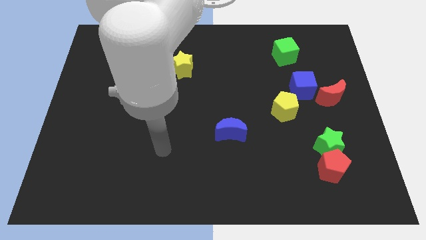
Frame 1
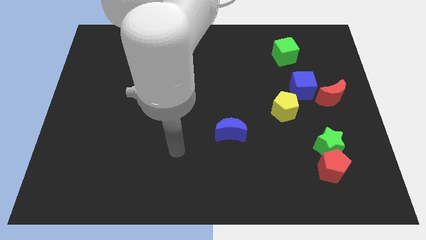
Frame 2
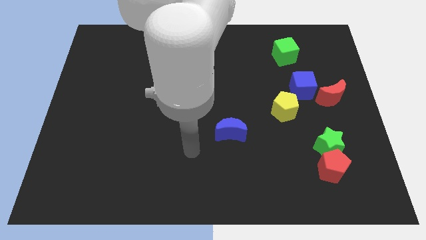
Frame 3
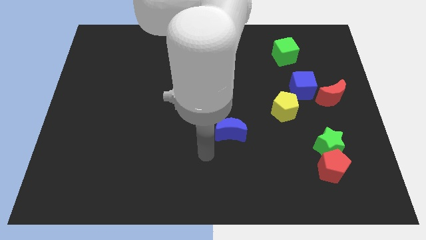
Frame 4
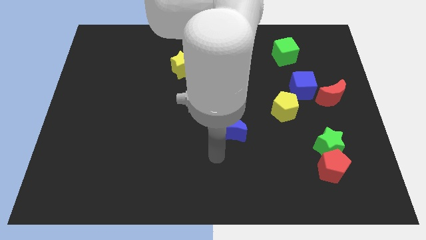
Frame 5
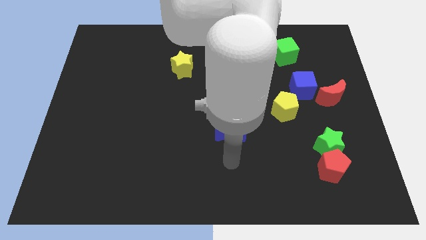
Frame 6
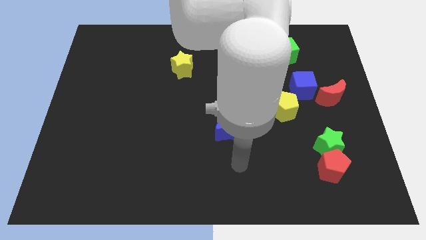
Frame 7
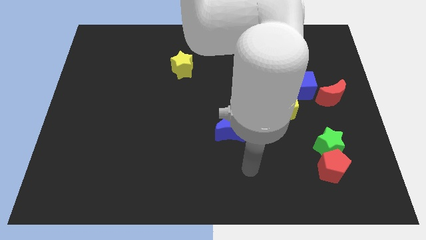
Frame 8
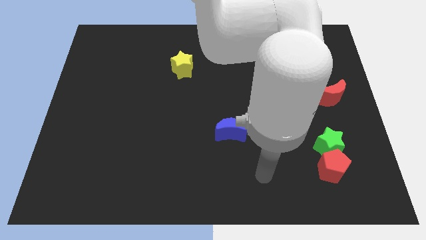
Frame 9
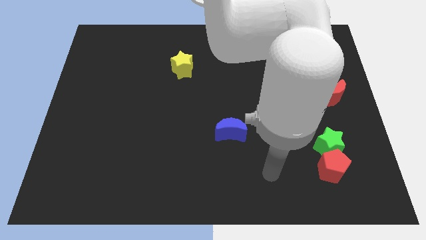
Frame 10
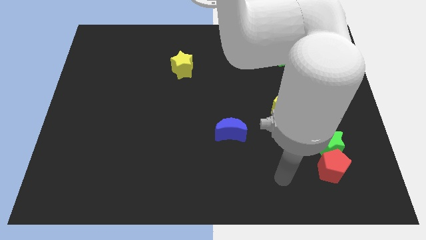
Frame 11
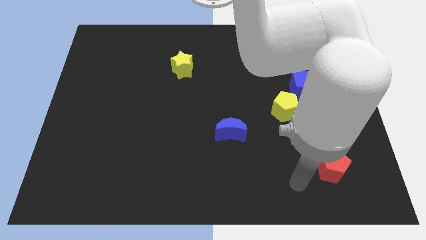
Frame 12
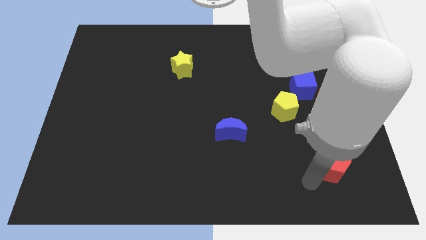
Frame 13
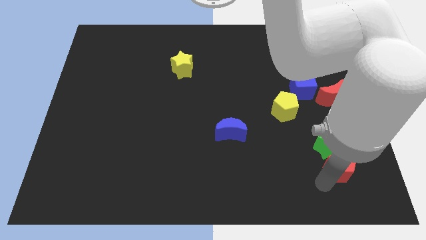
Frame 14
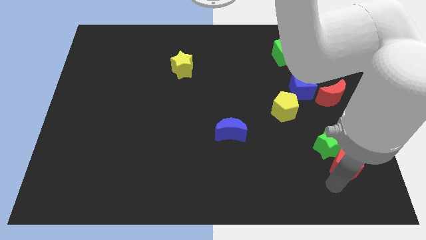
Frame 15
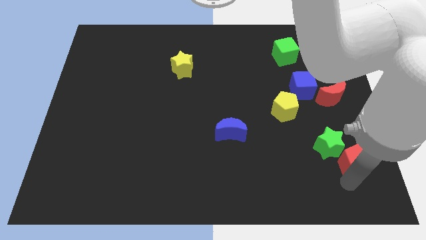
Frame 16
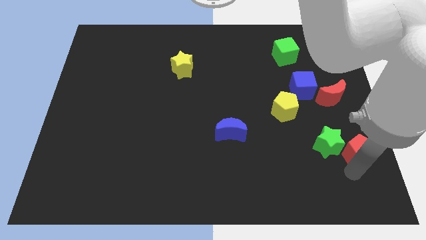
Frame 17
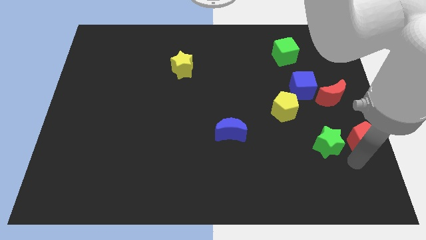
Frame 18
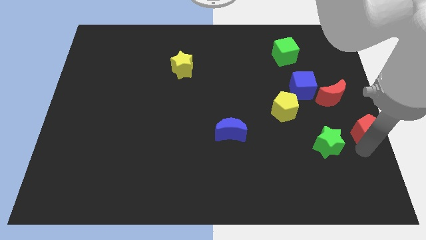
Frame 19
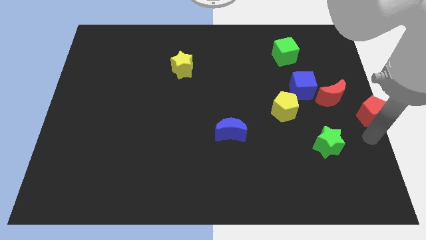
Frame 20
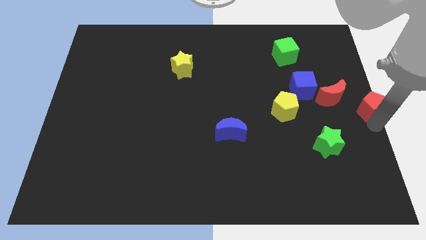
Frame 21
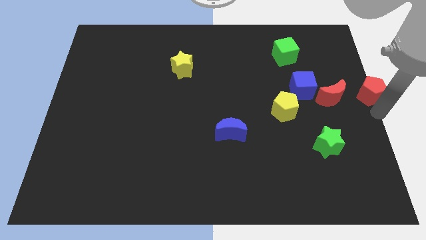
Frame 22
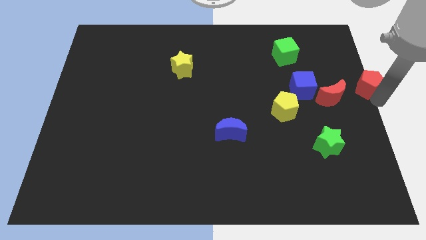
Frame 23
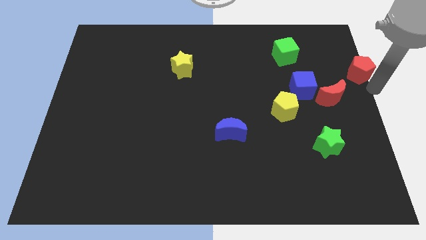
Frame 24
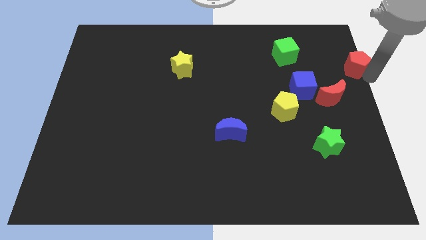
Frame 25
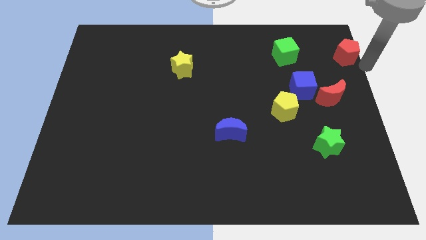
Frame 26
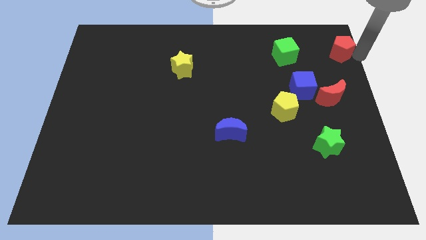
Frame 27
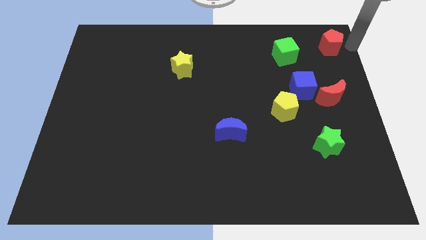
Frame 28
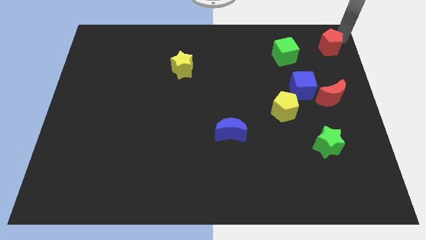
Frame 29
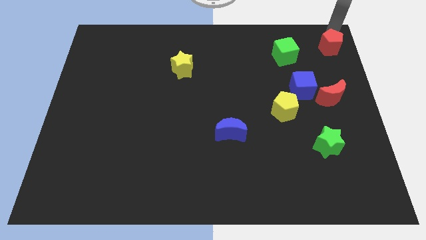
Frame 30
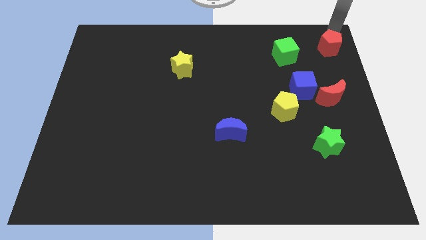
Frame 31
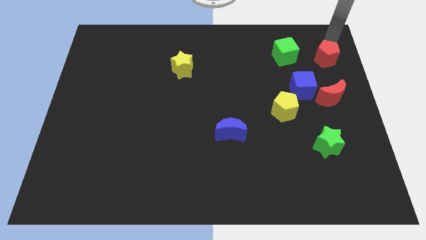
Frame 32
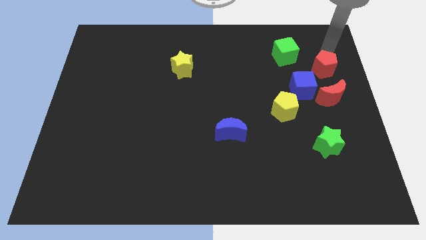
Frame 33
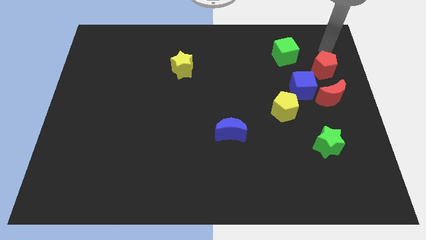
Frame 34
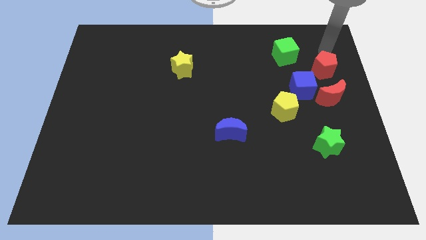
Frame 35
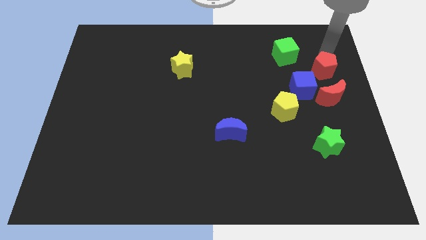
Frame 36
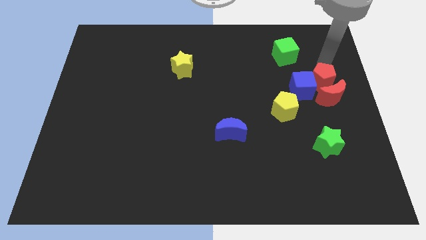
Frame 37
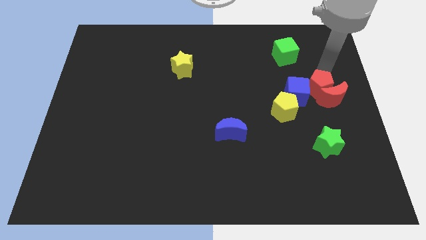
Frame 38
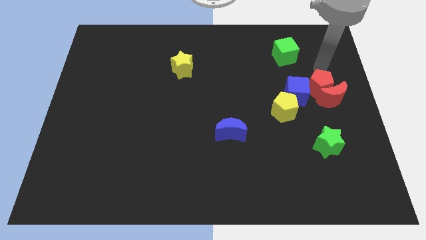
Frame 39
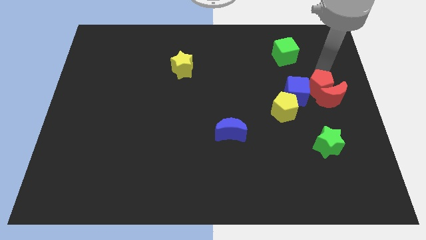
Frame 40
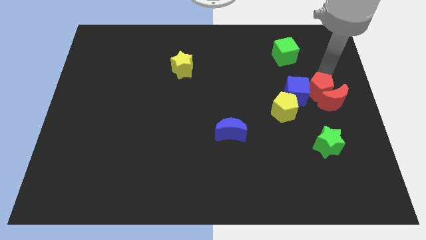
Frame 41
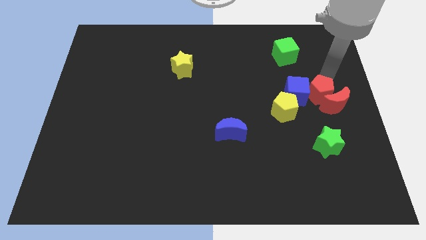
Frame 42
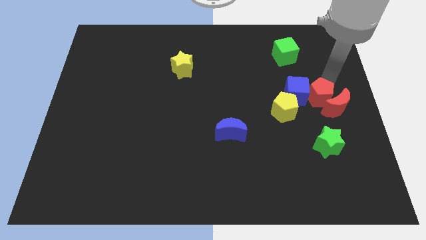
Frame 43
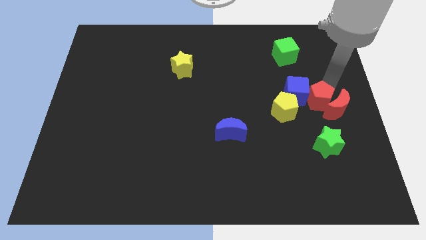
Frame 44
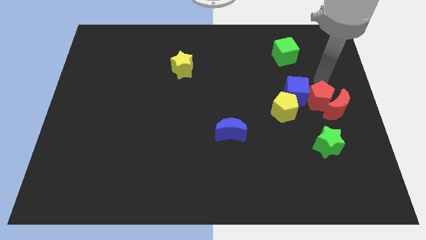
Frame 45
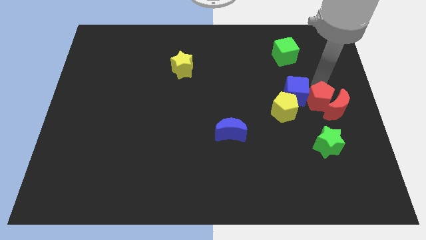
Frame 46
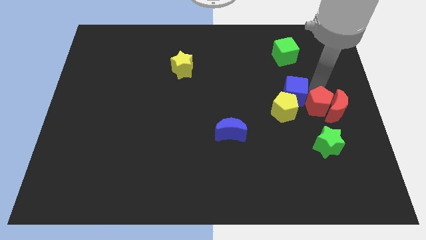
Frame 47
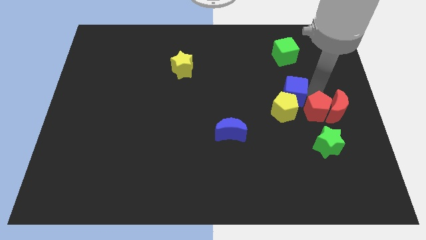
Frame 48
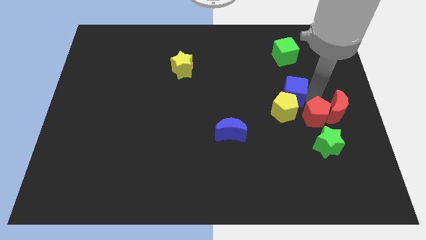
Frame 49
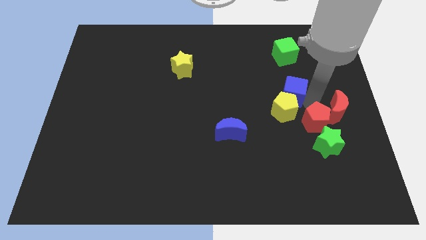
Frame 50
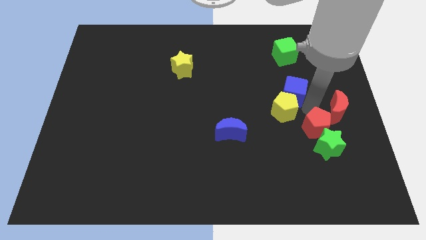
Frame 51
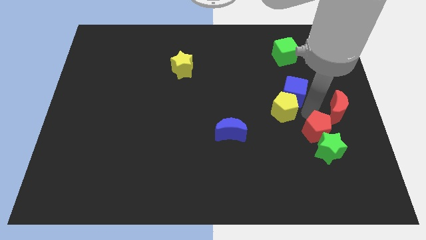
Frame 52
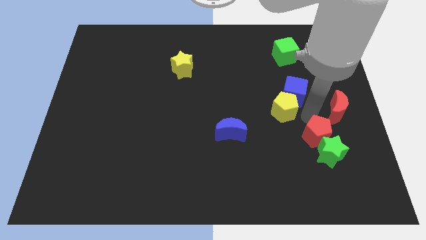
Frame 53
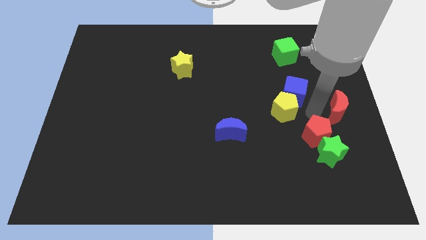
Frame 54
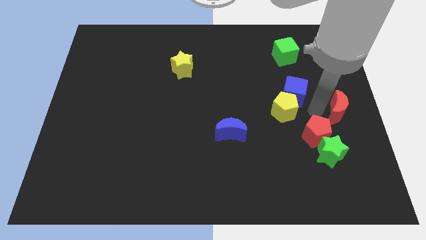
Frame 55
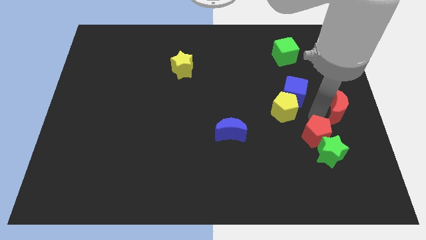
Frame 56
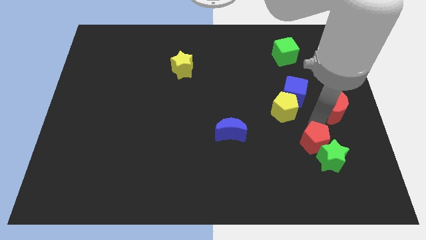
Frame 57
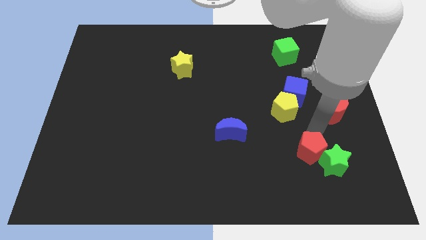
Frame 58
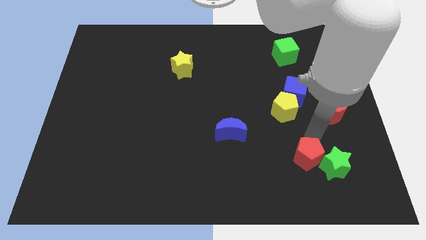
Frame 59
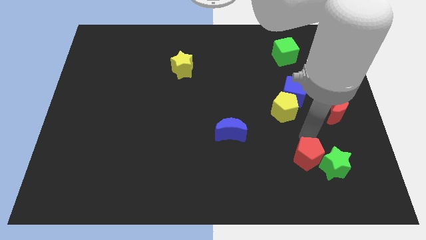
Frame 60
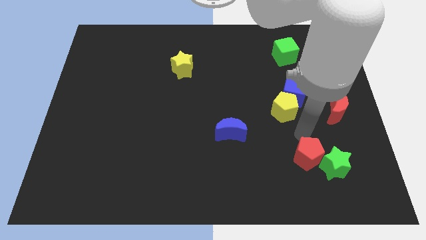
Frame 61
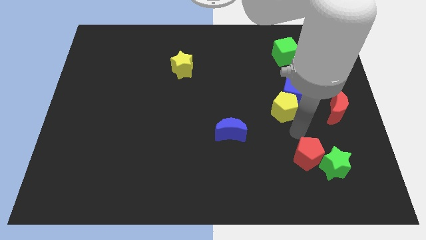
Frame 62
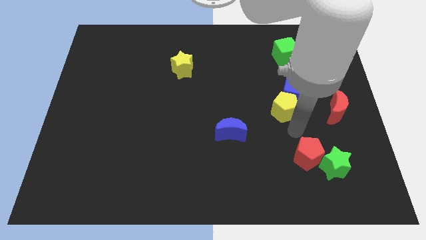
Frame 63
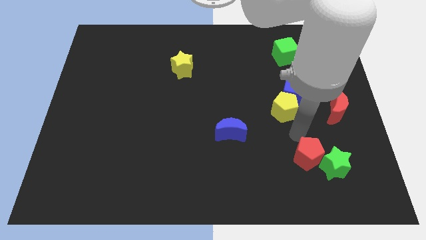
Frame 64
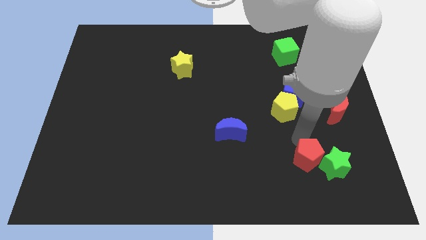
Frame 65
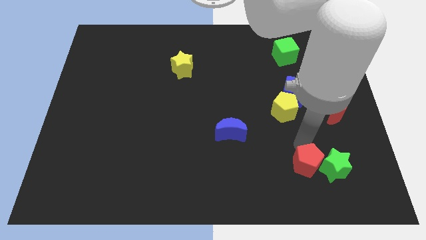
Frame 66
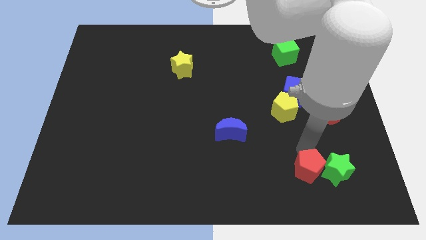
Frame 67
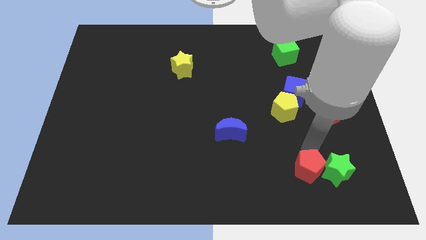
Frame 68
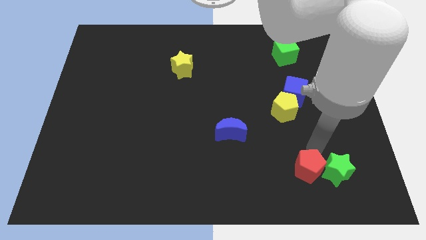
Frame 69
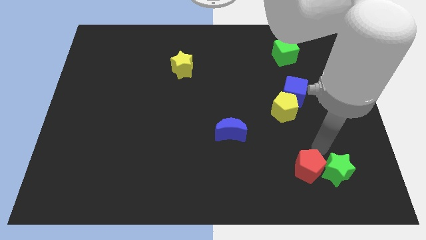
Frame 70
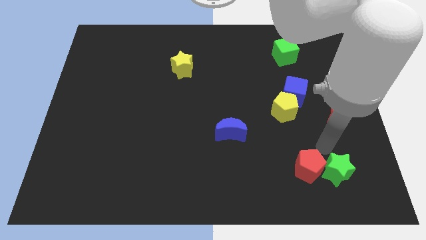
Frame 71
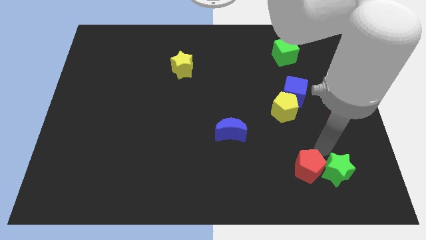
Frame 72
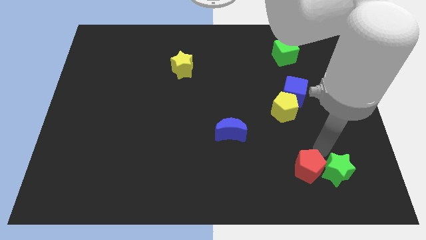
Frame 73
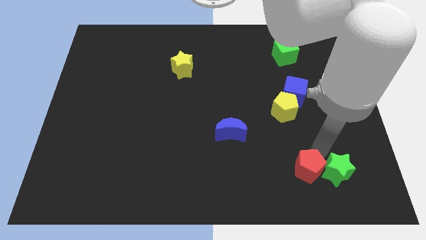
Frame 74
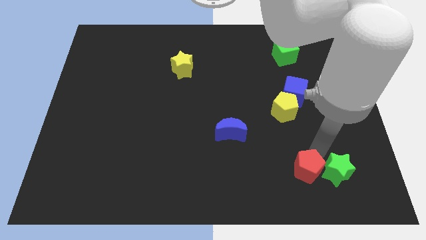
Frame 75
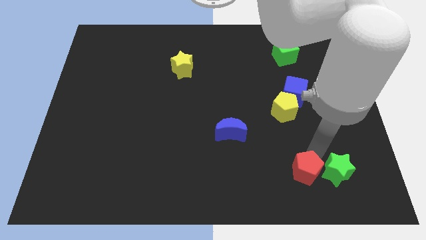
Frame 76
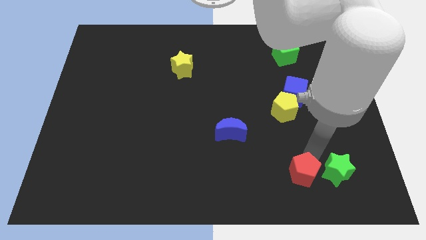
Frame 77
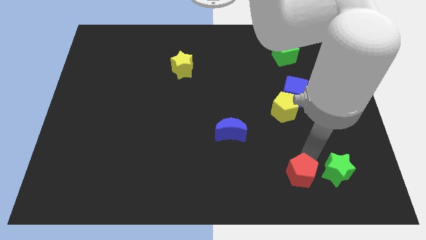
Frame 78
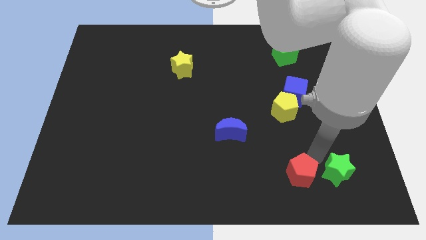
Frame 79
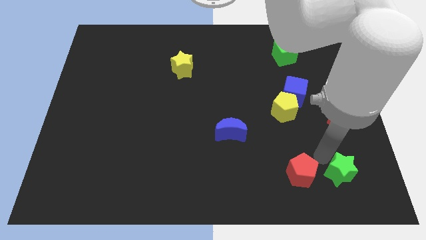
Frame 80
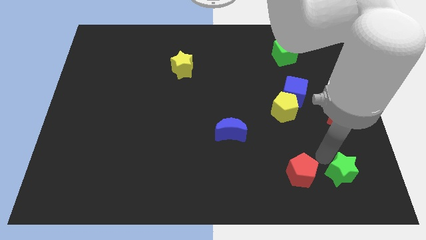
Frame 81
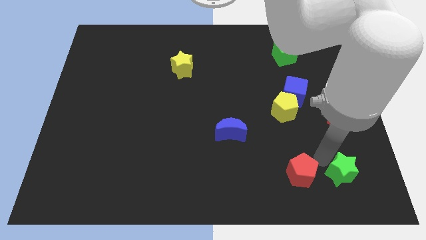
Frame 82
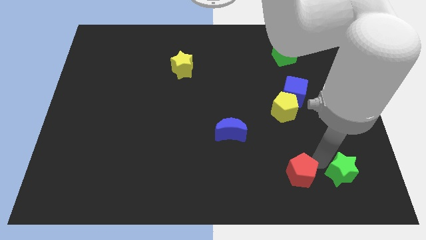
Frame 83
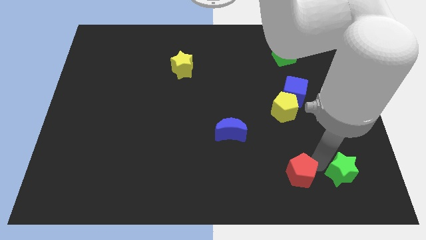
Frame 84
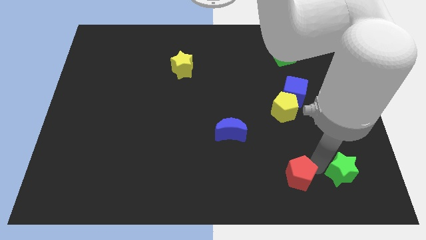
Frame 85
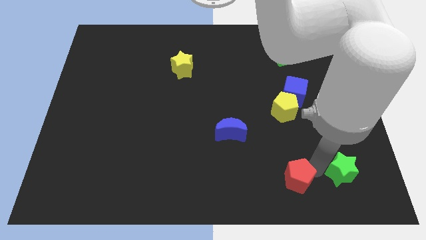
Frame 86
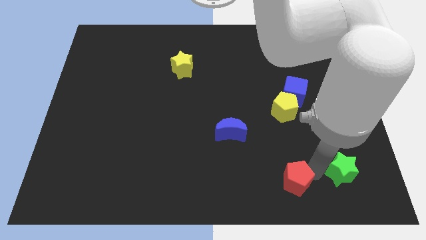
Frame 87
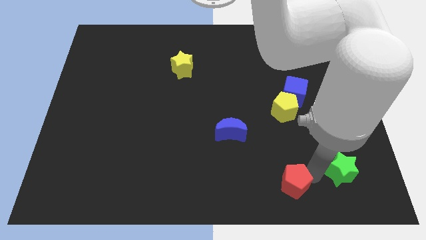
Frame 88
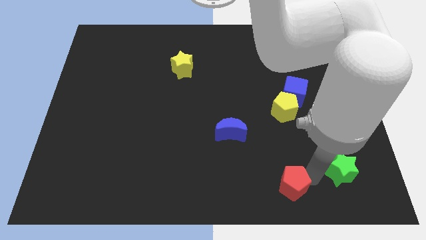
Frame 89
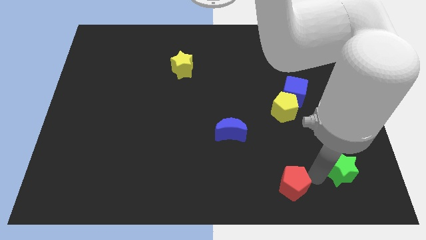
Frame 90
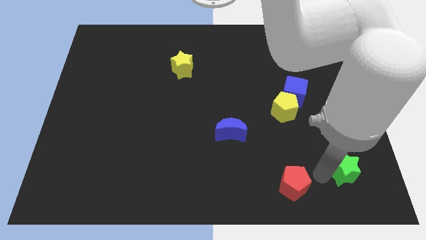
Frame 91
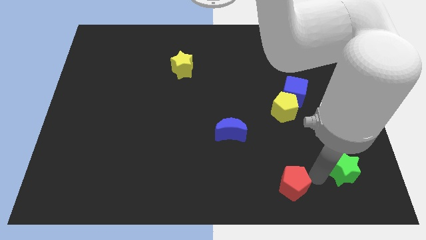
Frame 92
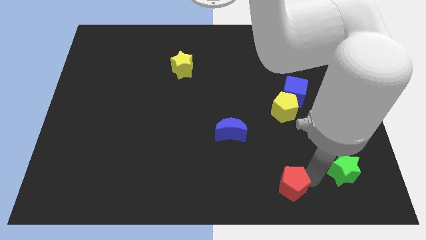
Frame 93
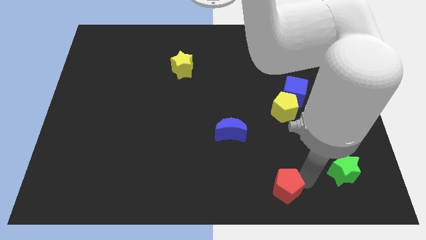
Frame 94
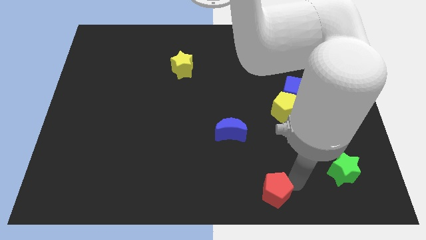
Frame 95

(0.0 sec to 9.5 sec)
move the red pentagon to the bottom side
